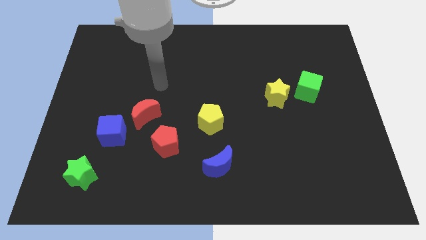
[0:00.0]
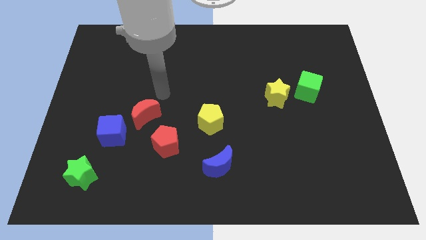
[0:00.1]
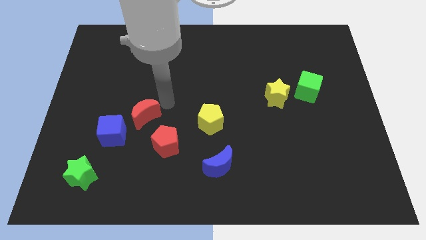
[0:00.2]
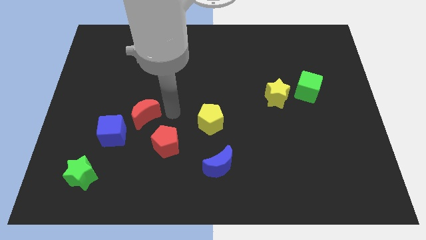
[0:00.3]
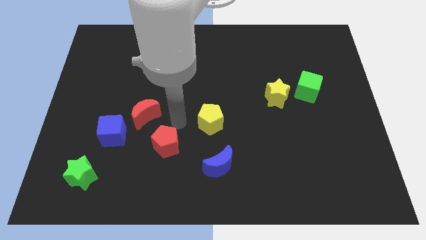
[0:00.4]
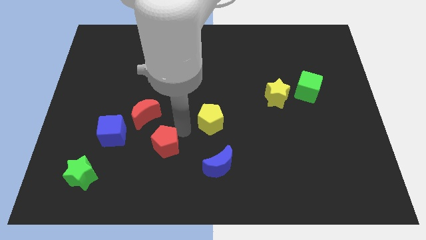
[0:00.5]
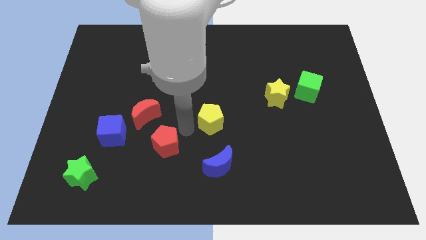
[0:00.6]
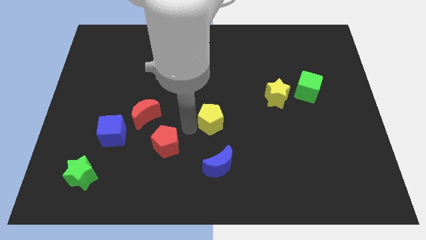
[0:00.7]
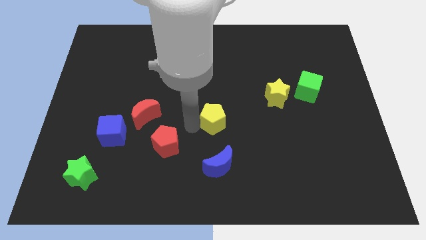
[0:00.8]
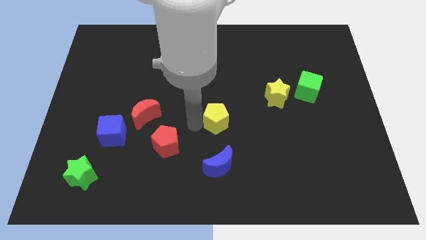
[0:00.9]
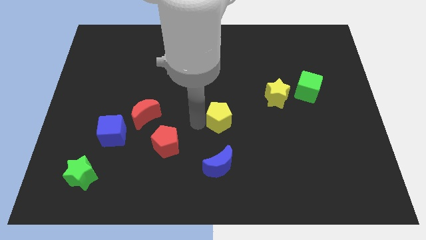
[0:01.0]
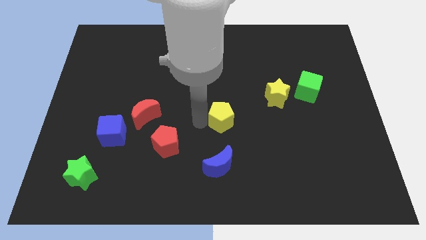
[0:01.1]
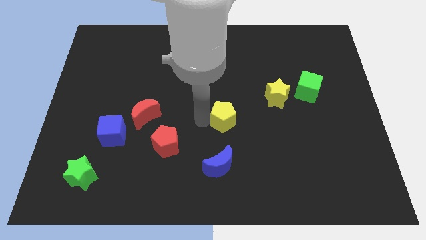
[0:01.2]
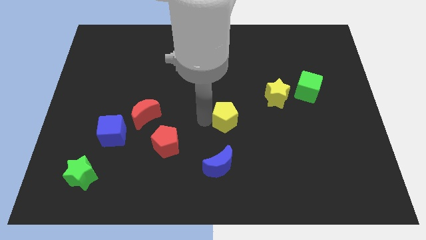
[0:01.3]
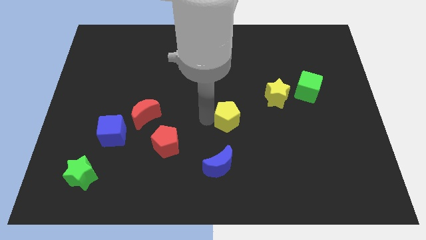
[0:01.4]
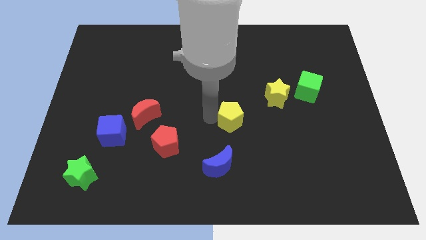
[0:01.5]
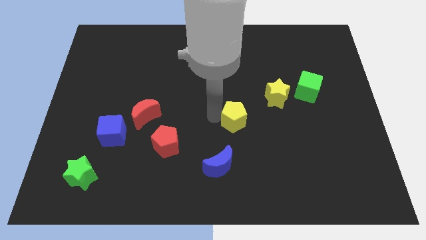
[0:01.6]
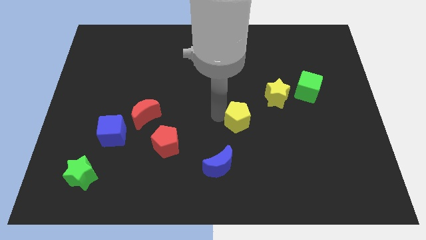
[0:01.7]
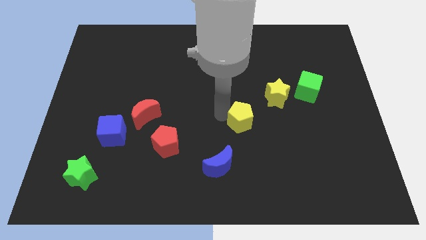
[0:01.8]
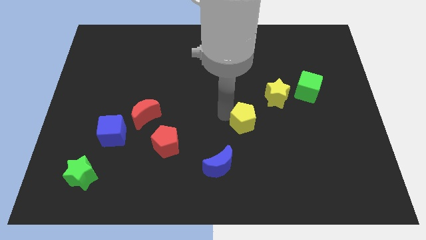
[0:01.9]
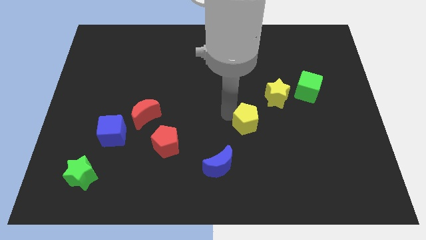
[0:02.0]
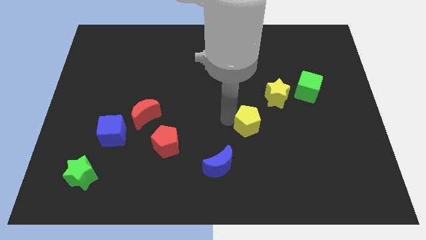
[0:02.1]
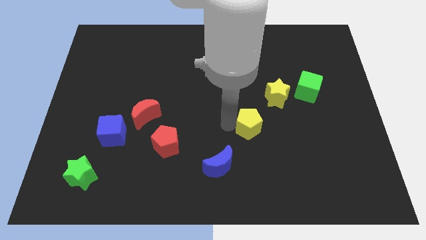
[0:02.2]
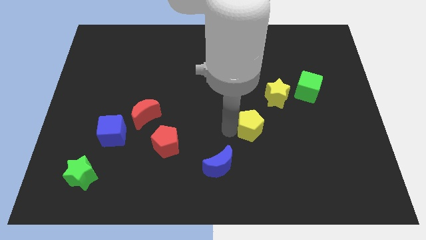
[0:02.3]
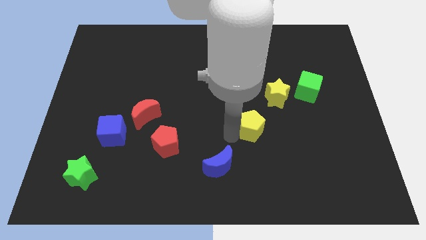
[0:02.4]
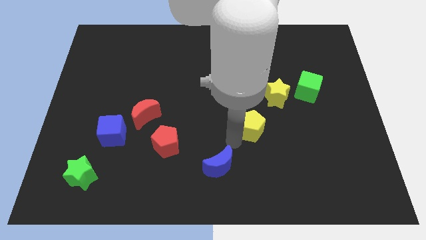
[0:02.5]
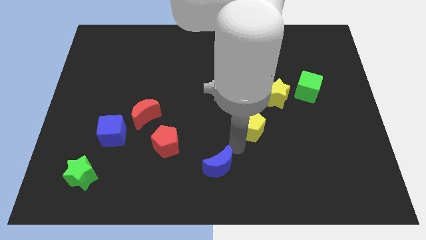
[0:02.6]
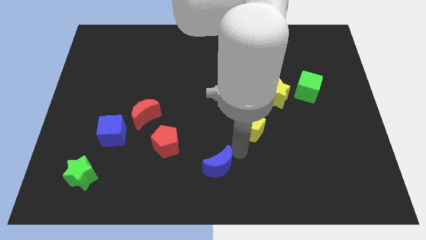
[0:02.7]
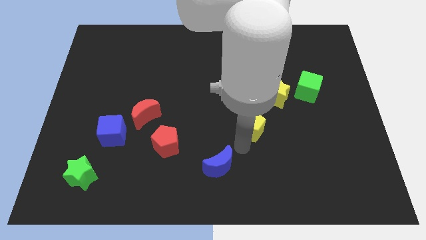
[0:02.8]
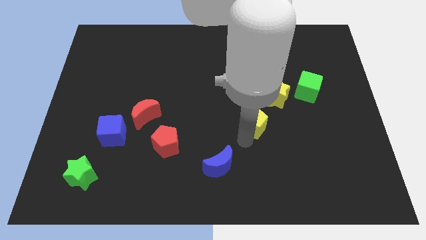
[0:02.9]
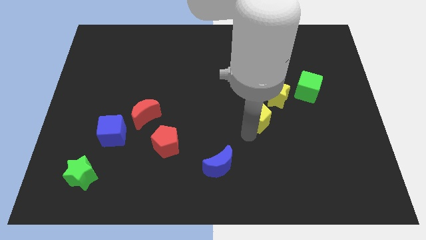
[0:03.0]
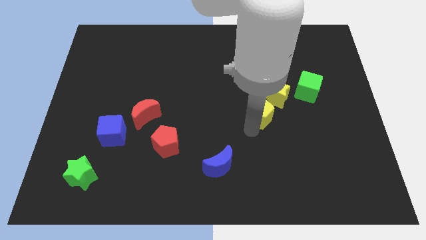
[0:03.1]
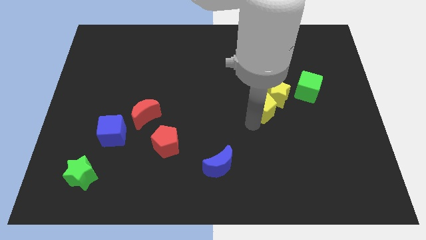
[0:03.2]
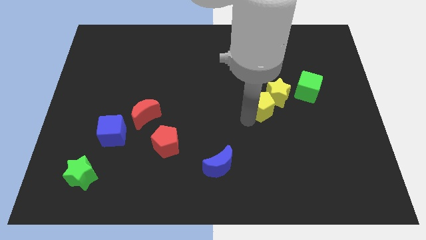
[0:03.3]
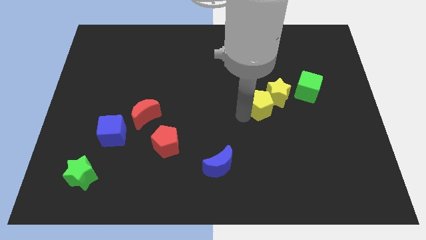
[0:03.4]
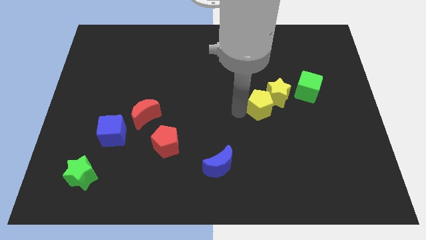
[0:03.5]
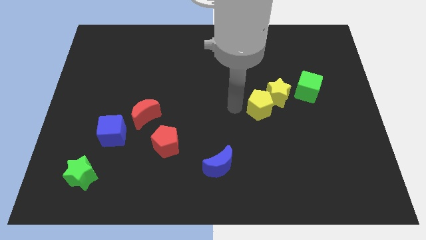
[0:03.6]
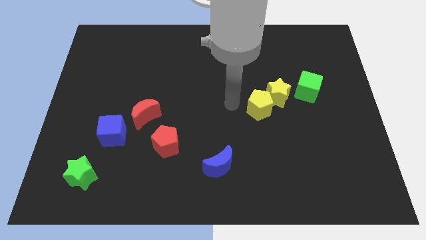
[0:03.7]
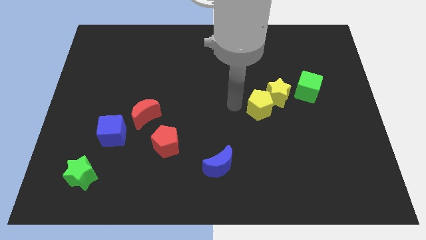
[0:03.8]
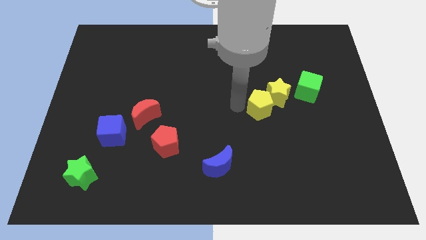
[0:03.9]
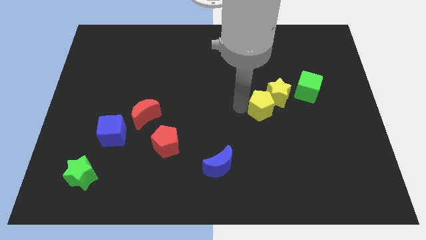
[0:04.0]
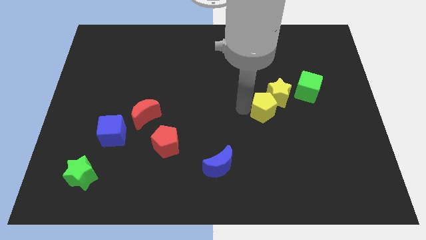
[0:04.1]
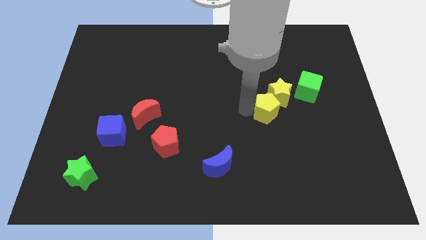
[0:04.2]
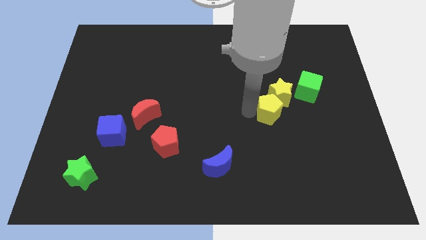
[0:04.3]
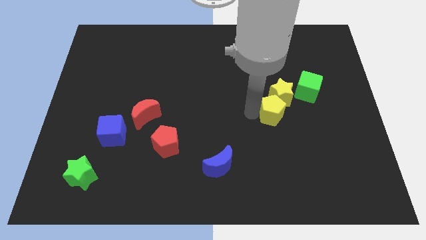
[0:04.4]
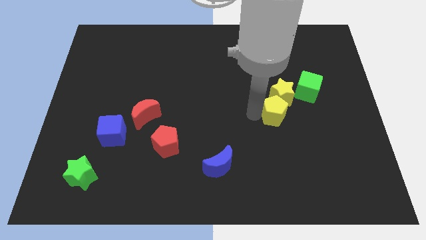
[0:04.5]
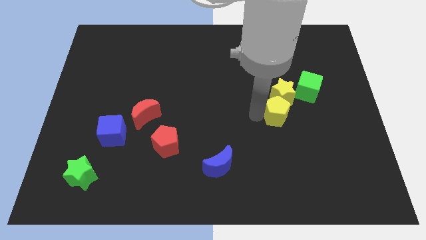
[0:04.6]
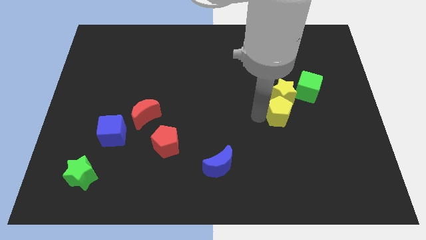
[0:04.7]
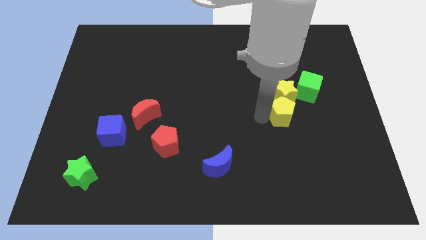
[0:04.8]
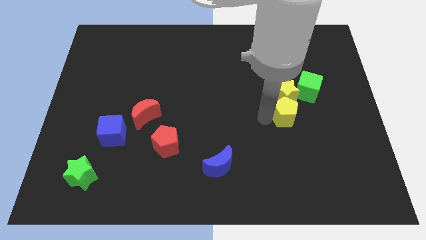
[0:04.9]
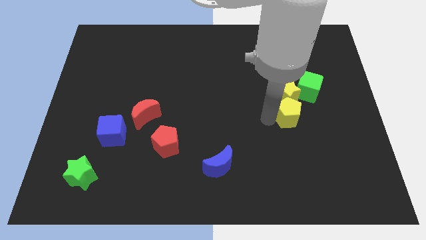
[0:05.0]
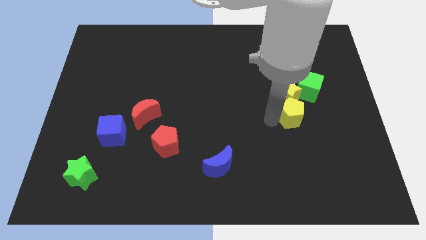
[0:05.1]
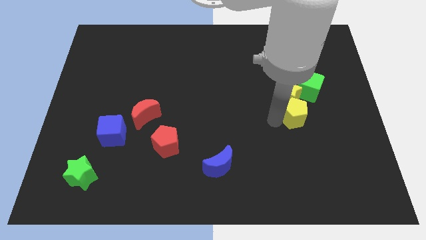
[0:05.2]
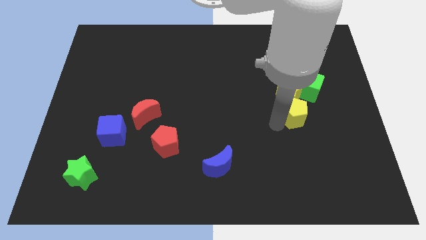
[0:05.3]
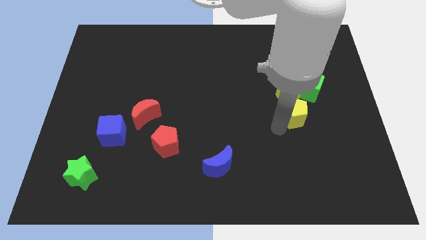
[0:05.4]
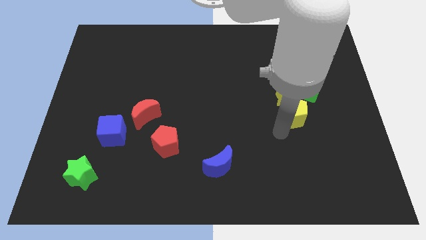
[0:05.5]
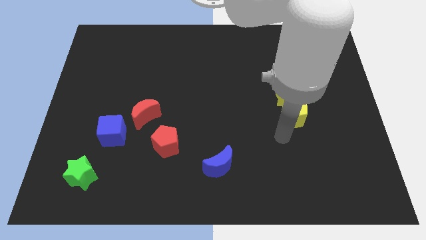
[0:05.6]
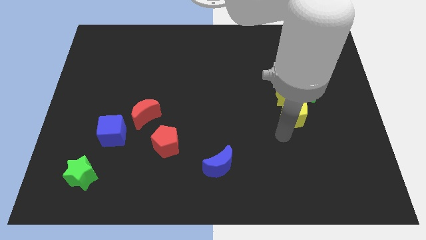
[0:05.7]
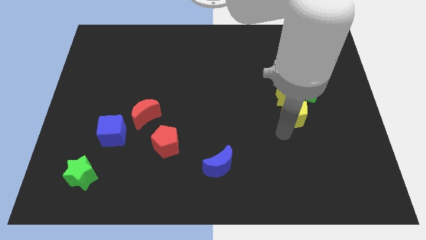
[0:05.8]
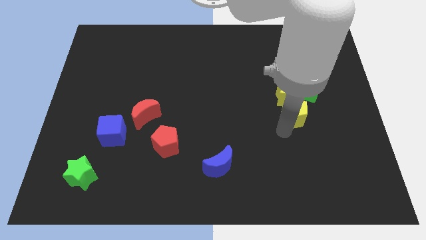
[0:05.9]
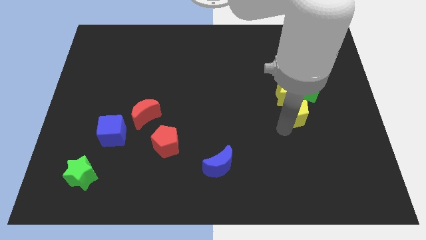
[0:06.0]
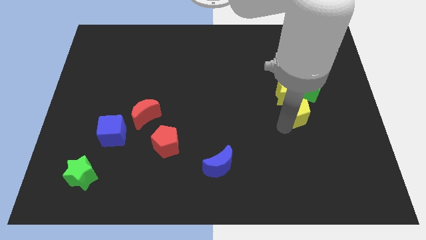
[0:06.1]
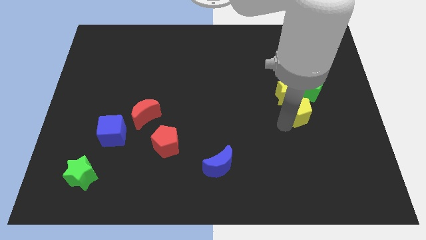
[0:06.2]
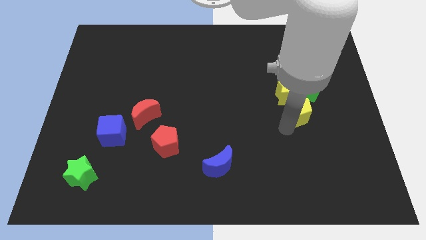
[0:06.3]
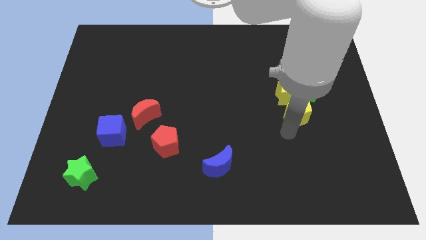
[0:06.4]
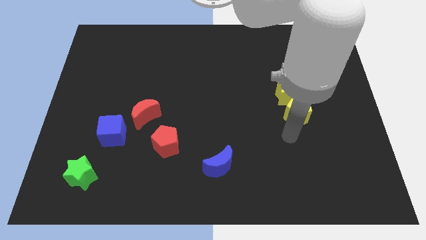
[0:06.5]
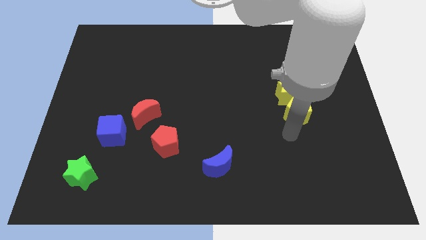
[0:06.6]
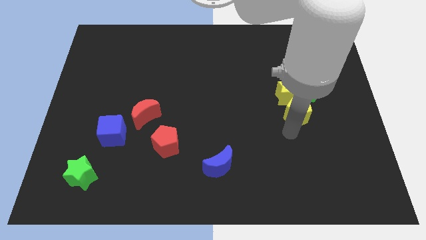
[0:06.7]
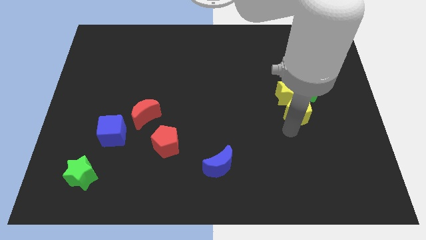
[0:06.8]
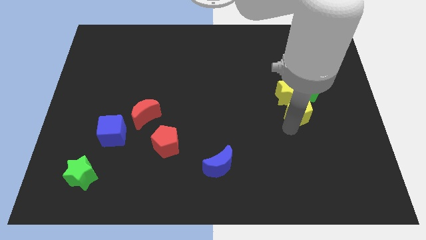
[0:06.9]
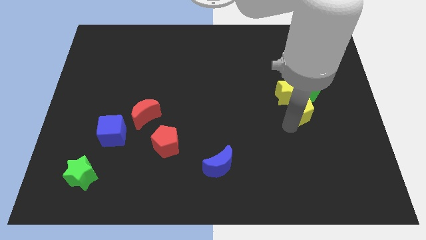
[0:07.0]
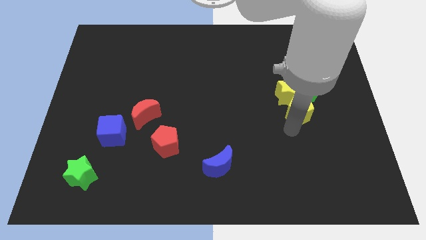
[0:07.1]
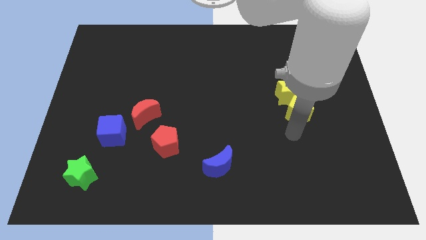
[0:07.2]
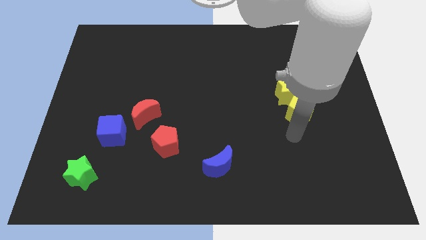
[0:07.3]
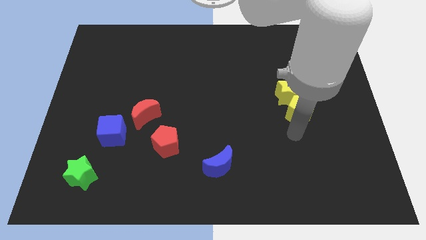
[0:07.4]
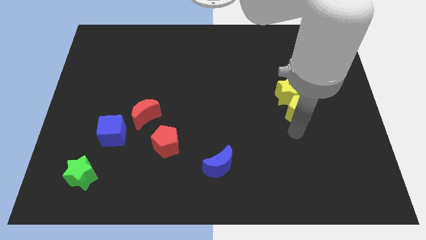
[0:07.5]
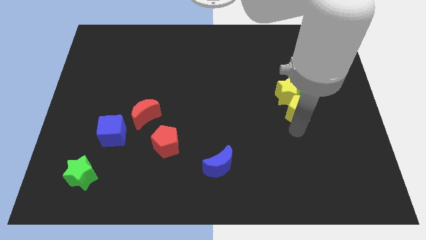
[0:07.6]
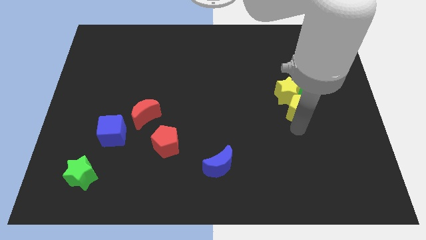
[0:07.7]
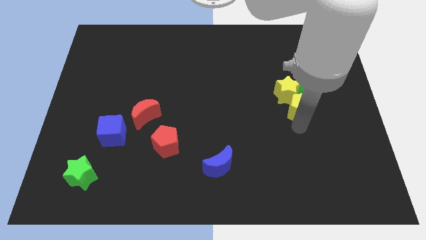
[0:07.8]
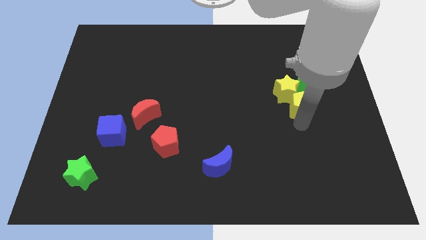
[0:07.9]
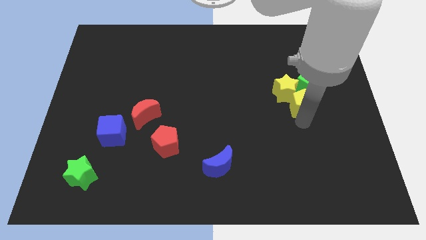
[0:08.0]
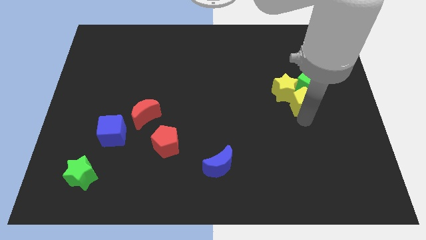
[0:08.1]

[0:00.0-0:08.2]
slide the yellow pentagon towards the green cube
